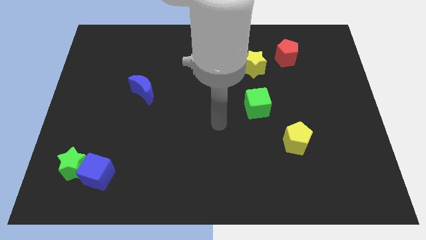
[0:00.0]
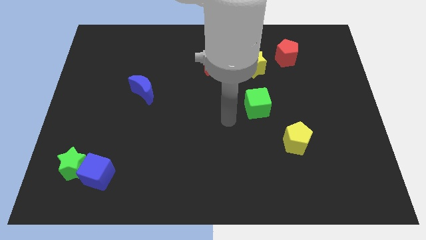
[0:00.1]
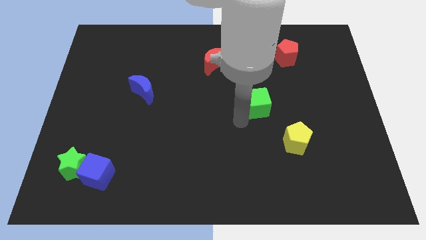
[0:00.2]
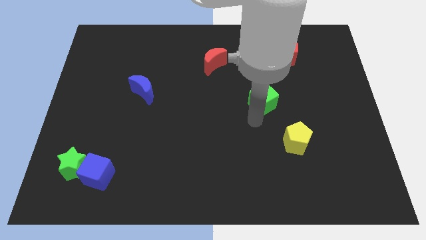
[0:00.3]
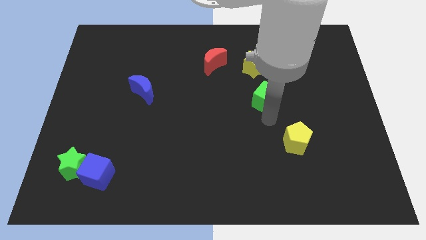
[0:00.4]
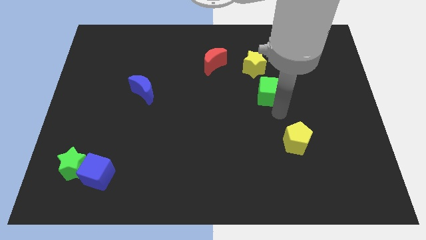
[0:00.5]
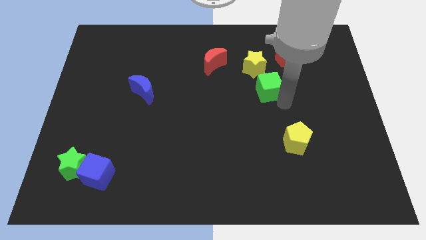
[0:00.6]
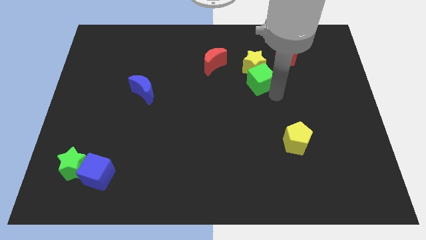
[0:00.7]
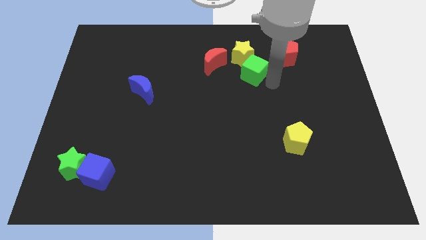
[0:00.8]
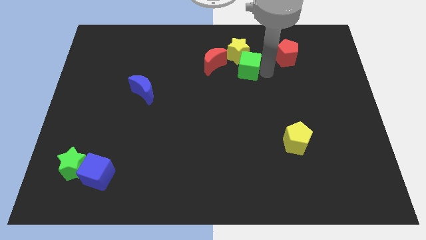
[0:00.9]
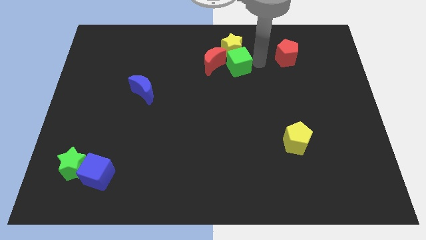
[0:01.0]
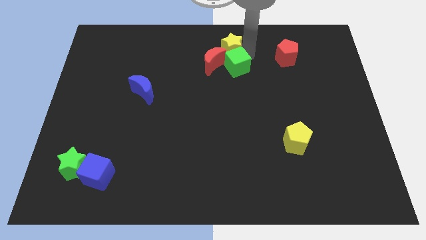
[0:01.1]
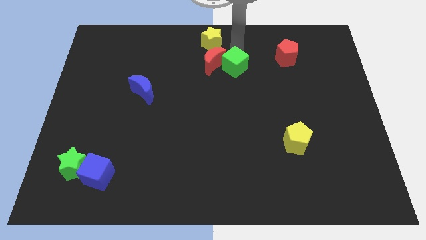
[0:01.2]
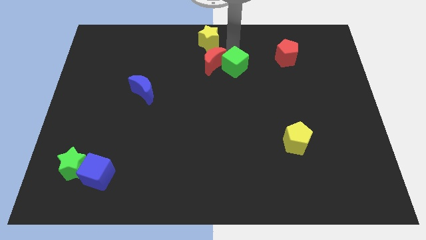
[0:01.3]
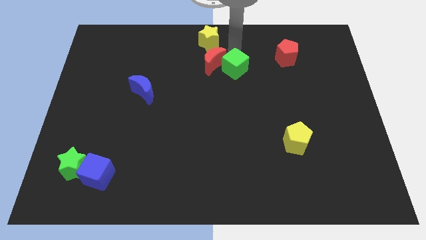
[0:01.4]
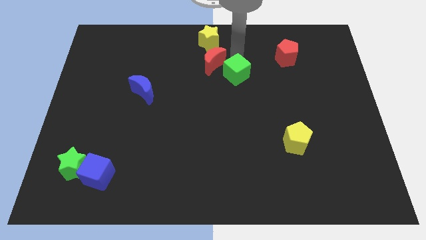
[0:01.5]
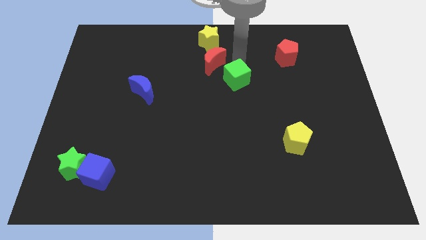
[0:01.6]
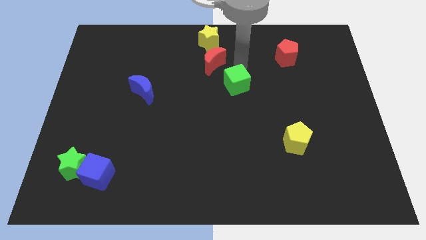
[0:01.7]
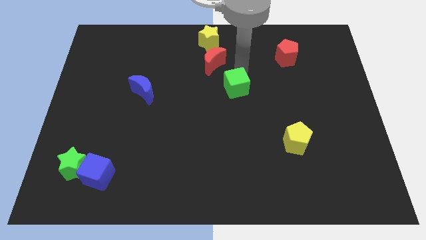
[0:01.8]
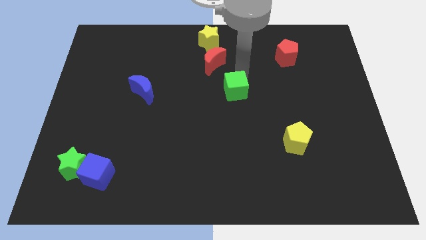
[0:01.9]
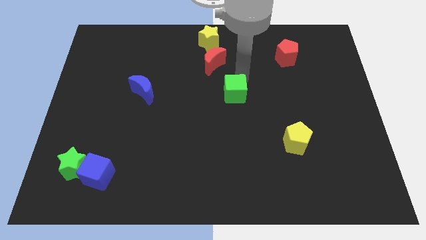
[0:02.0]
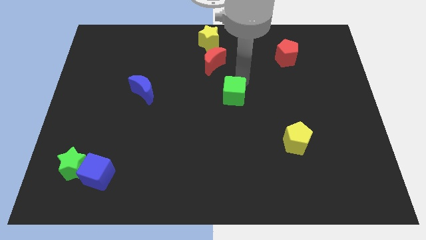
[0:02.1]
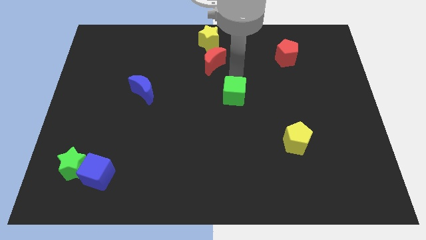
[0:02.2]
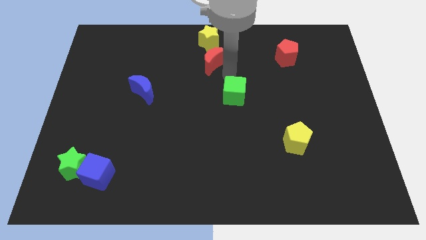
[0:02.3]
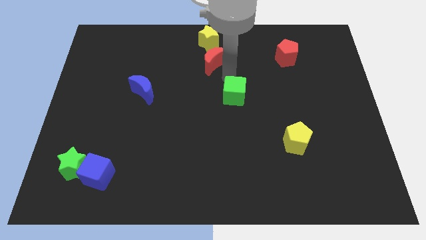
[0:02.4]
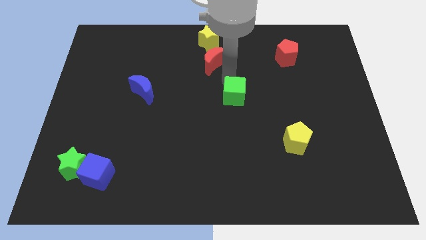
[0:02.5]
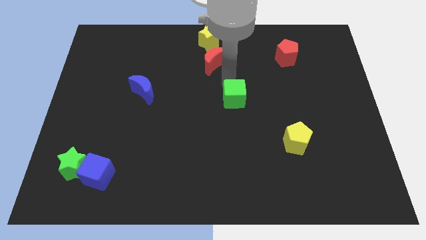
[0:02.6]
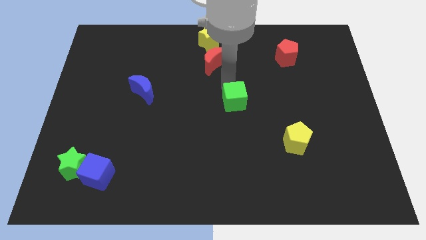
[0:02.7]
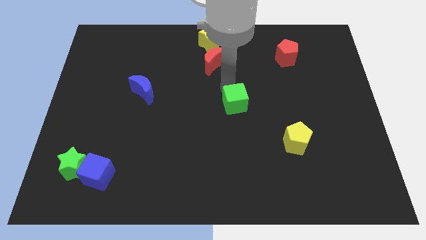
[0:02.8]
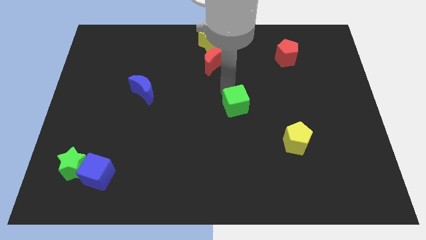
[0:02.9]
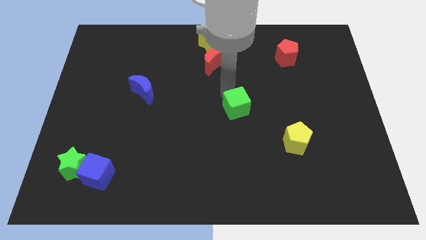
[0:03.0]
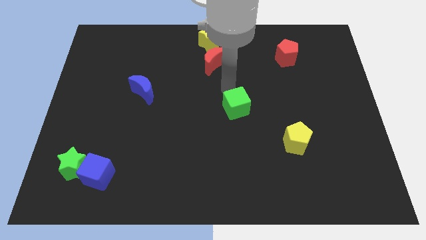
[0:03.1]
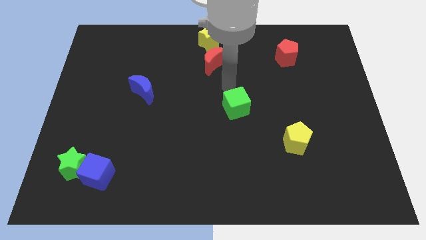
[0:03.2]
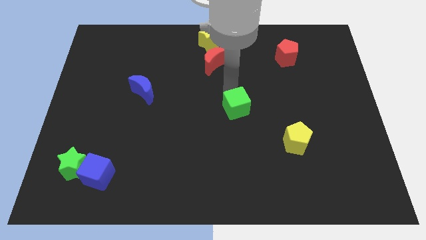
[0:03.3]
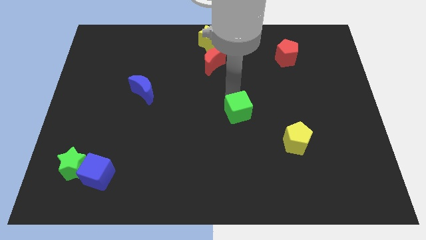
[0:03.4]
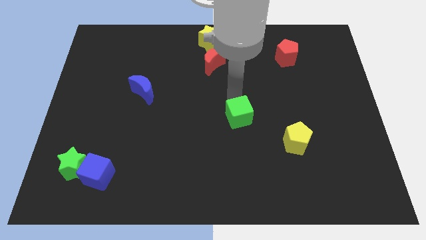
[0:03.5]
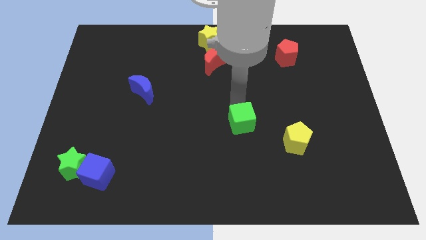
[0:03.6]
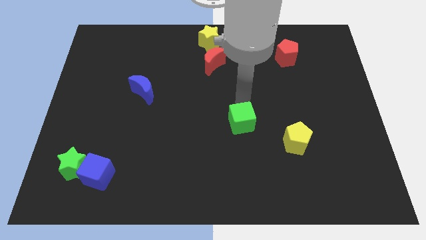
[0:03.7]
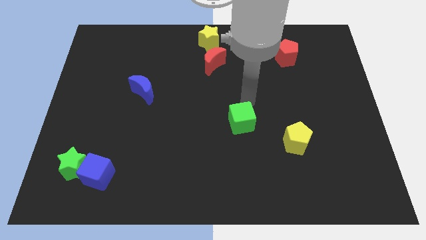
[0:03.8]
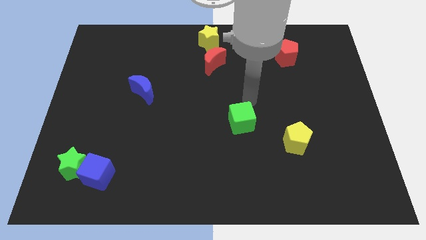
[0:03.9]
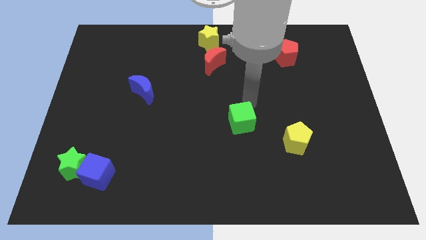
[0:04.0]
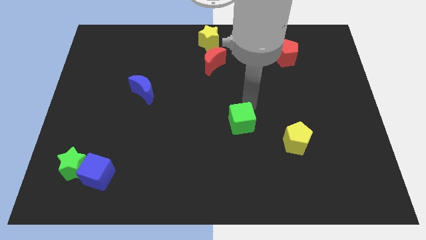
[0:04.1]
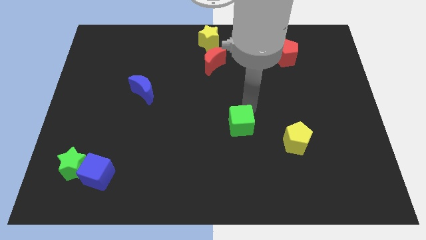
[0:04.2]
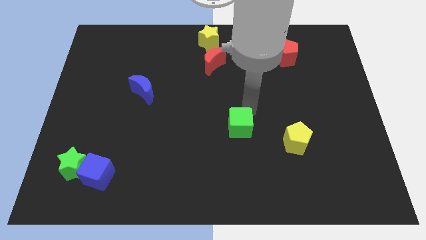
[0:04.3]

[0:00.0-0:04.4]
push the green cube down and then to the left somewhat

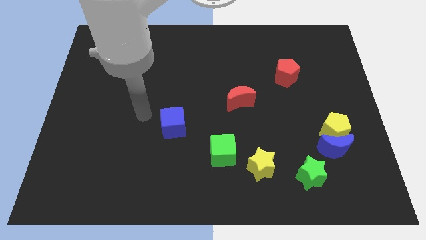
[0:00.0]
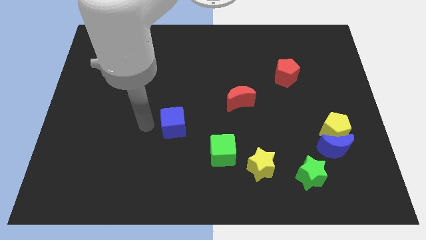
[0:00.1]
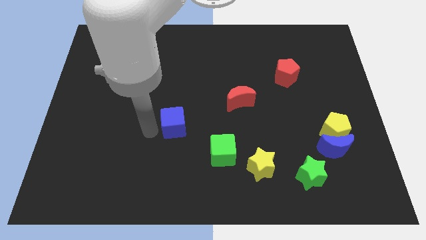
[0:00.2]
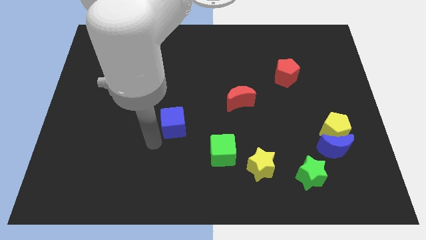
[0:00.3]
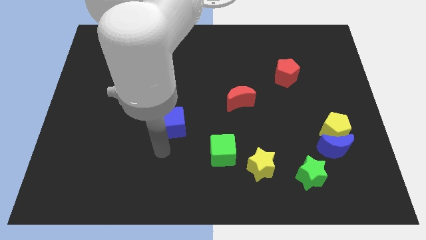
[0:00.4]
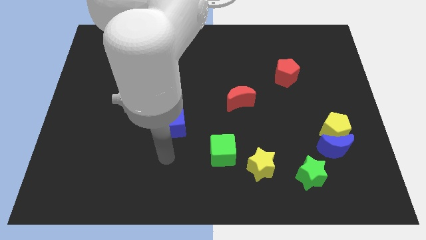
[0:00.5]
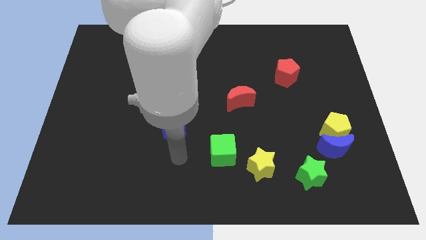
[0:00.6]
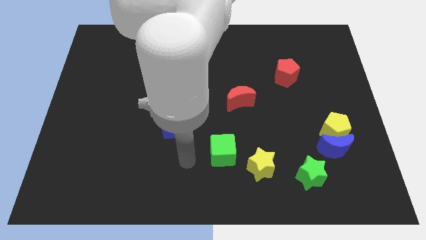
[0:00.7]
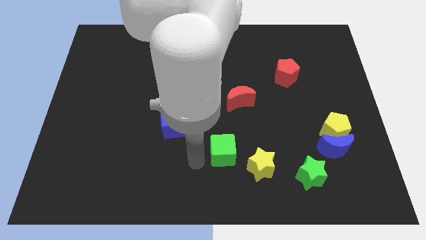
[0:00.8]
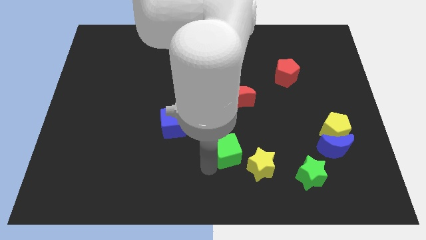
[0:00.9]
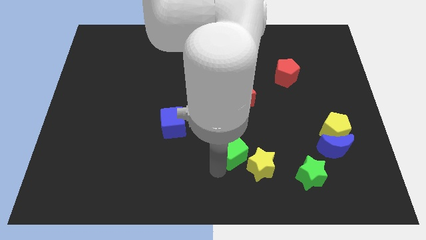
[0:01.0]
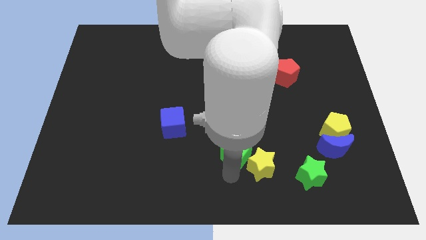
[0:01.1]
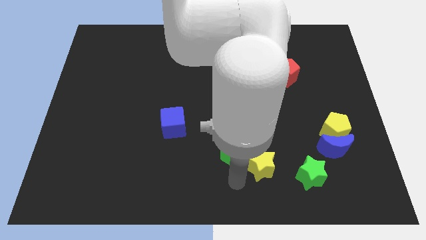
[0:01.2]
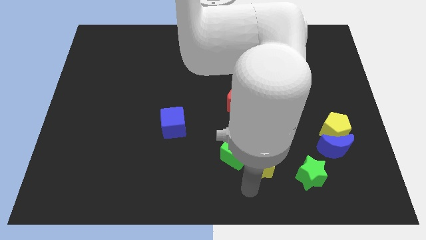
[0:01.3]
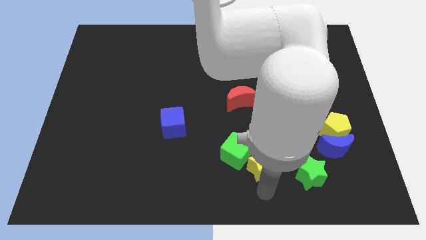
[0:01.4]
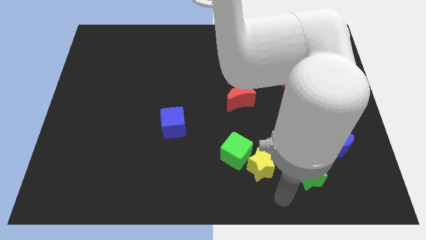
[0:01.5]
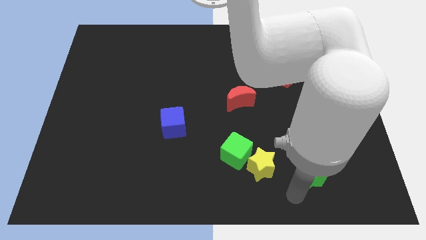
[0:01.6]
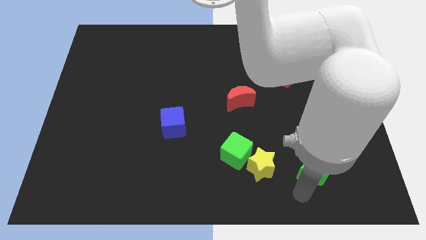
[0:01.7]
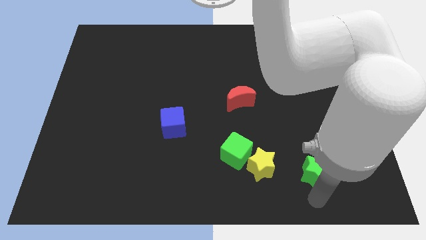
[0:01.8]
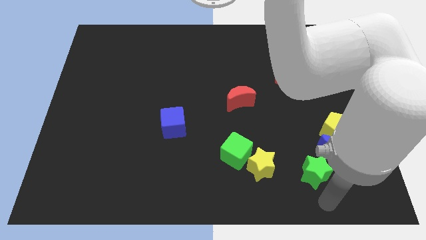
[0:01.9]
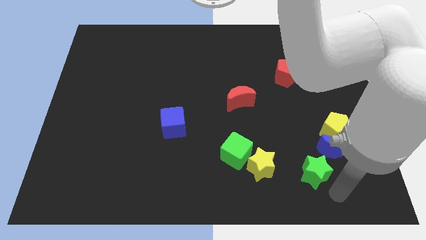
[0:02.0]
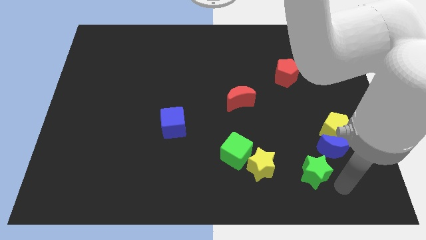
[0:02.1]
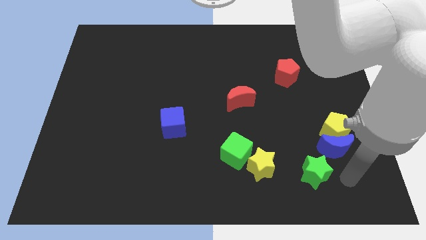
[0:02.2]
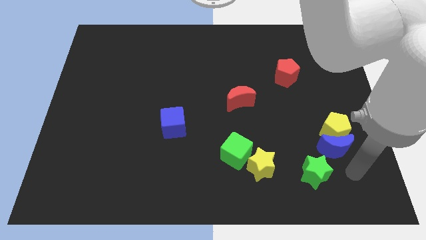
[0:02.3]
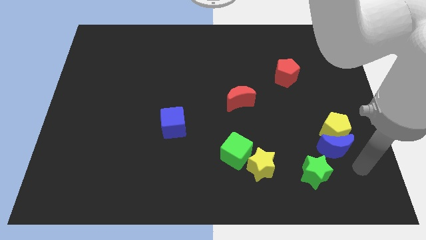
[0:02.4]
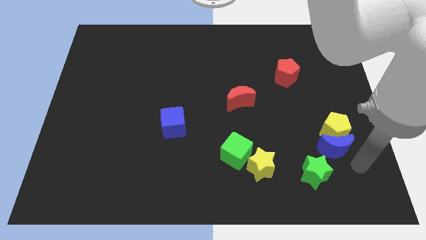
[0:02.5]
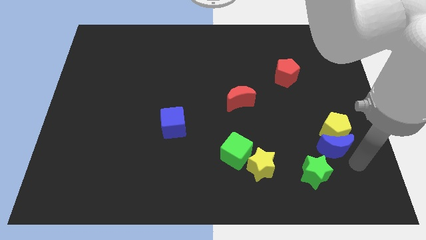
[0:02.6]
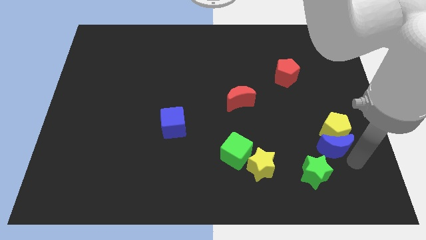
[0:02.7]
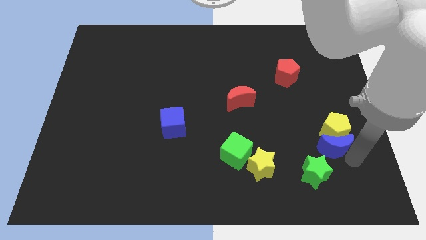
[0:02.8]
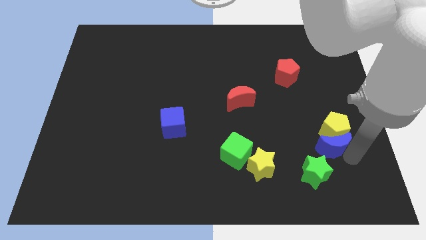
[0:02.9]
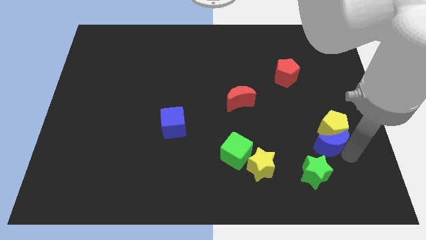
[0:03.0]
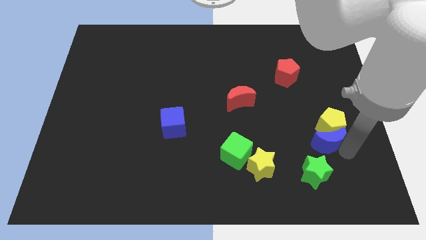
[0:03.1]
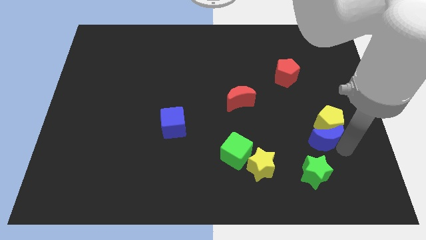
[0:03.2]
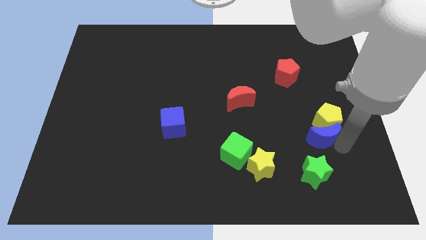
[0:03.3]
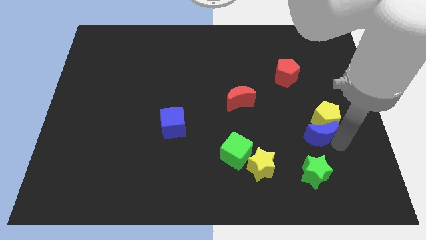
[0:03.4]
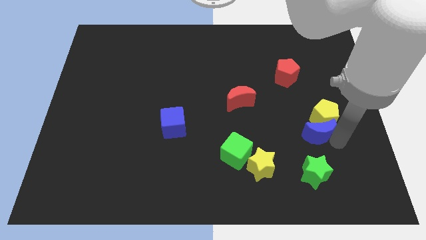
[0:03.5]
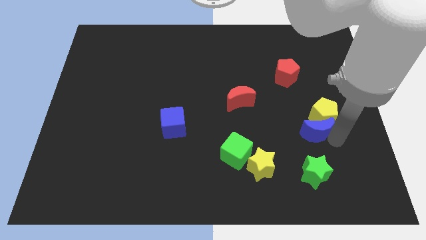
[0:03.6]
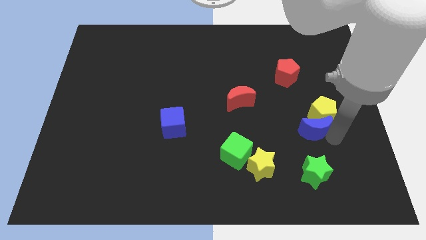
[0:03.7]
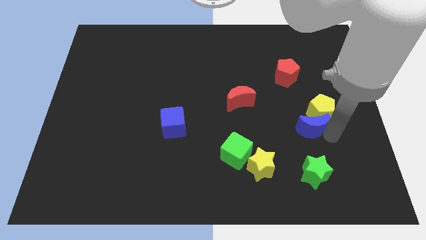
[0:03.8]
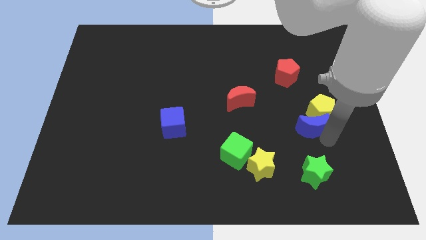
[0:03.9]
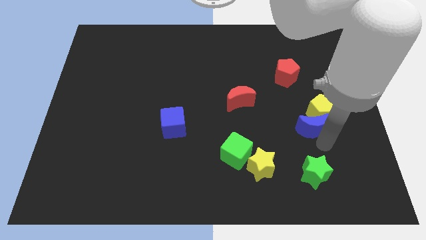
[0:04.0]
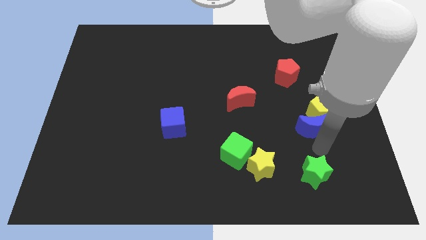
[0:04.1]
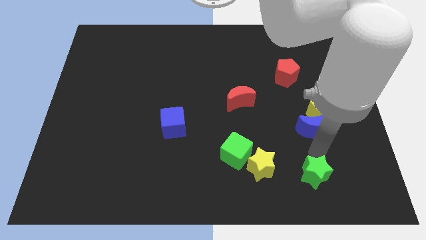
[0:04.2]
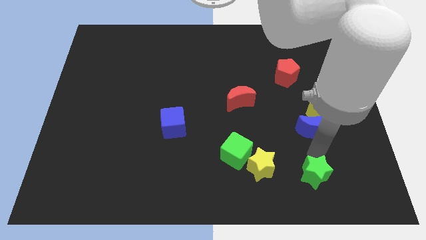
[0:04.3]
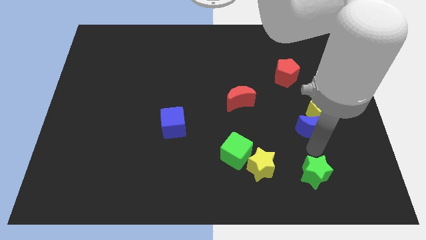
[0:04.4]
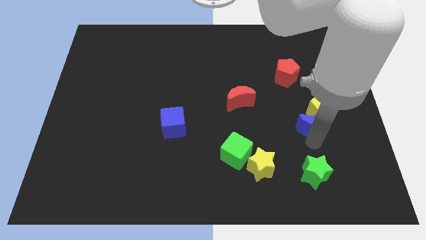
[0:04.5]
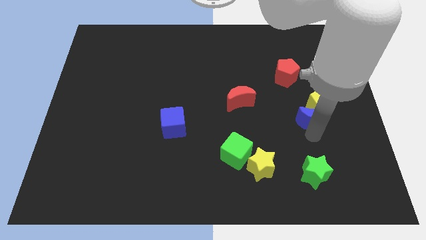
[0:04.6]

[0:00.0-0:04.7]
slide the blue moon a bit up
